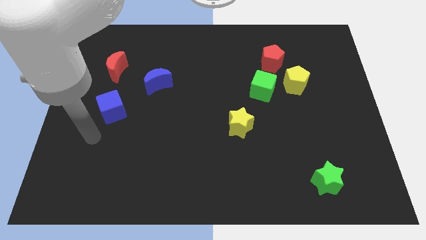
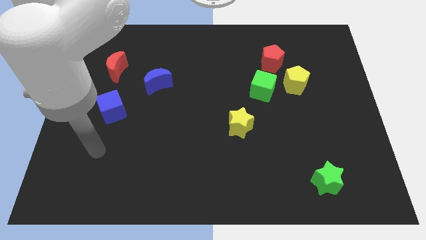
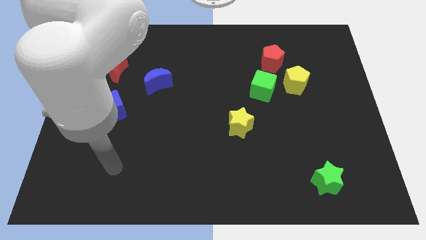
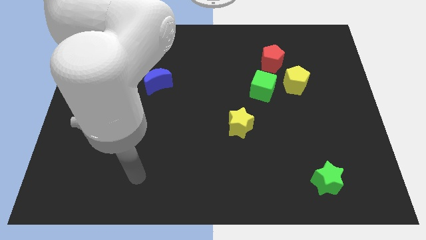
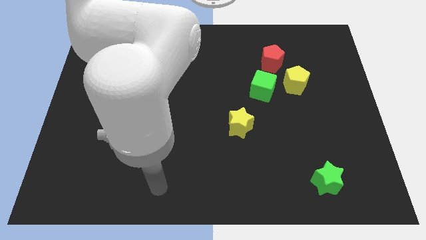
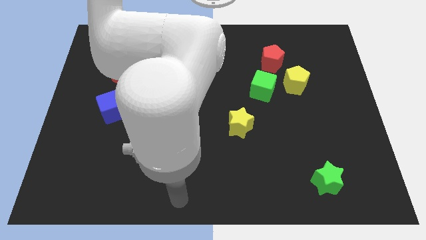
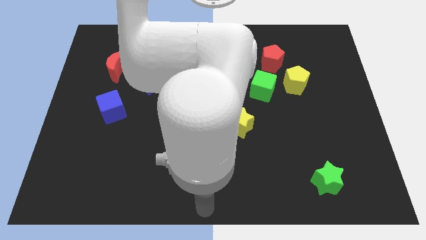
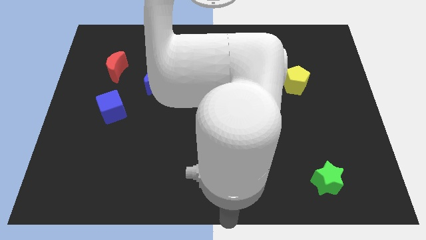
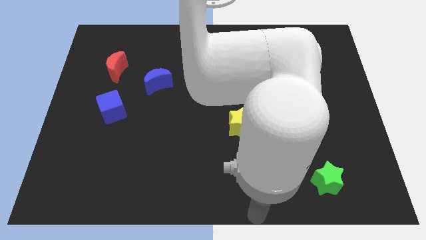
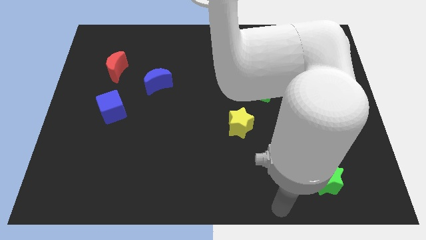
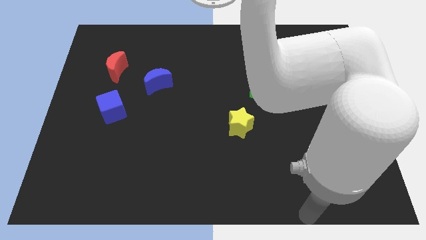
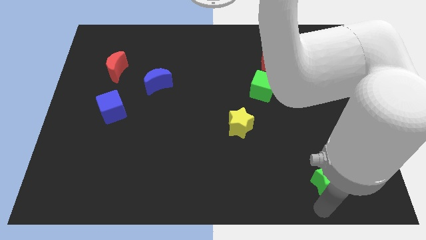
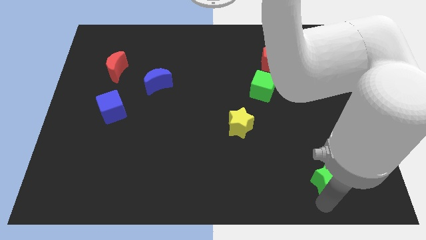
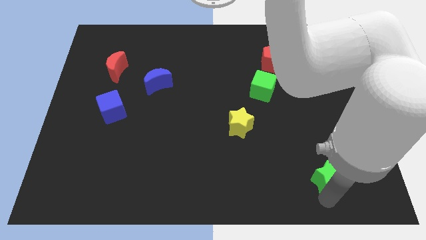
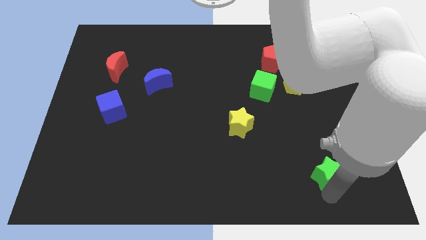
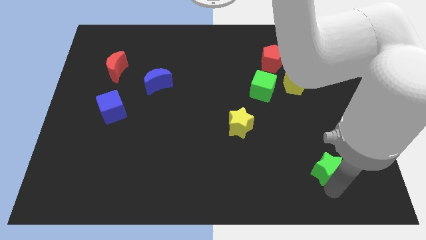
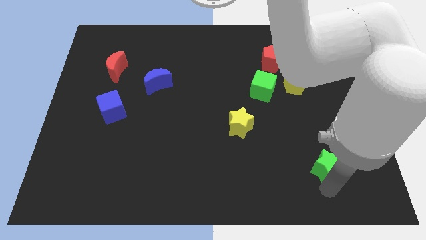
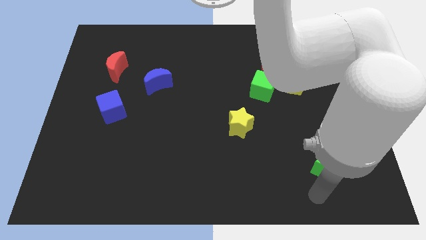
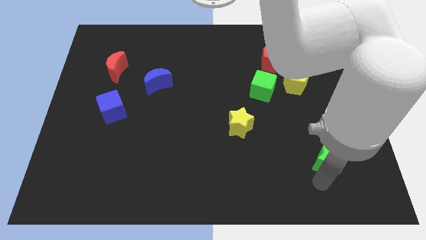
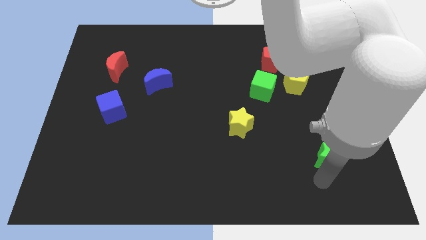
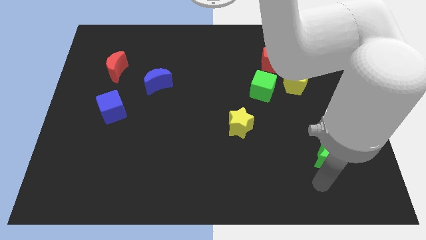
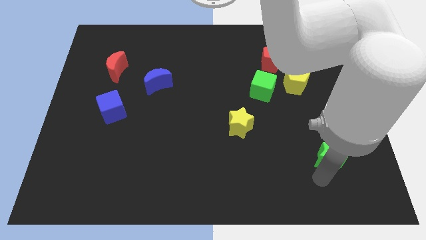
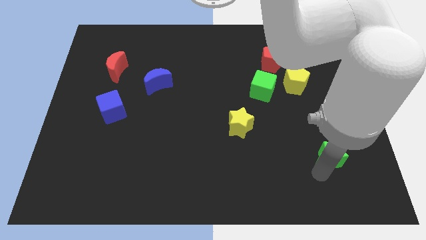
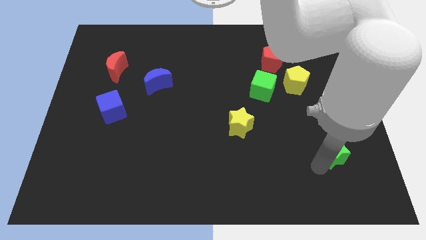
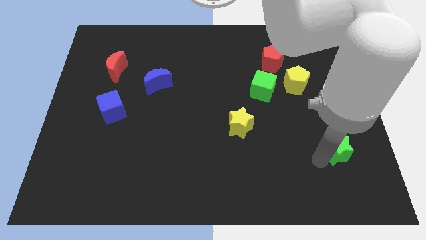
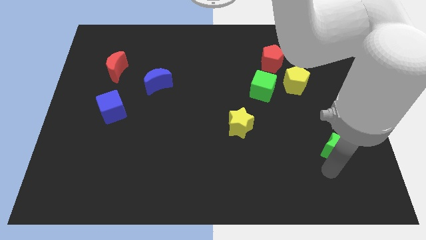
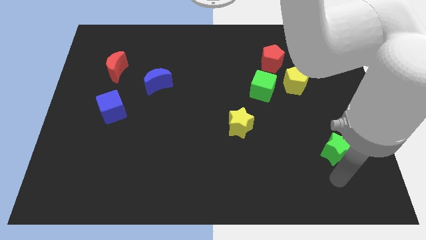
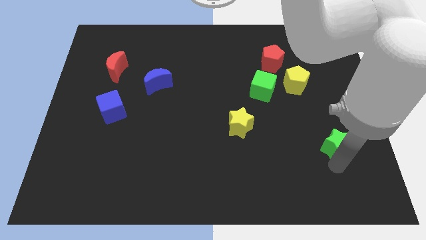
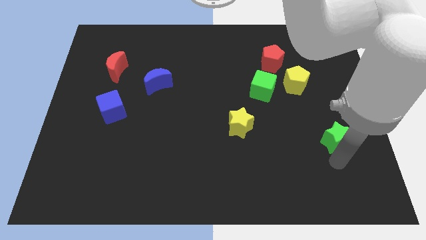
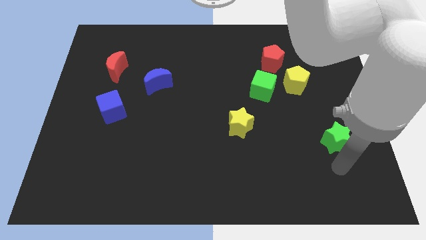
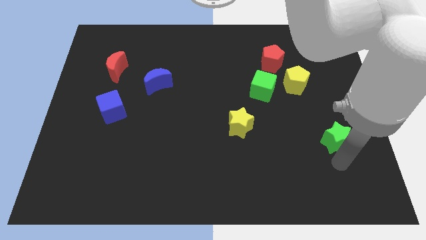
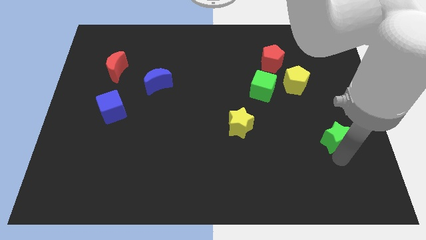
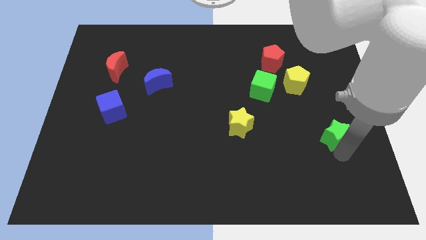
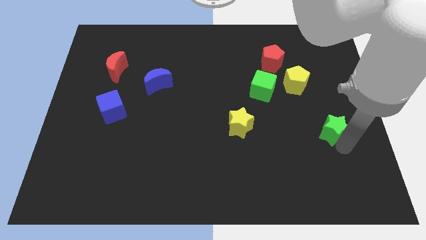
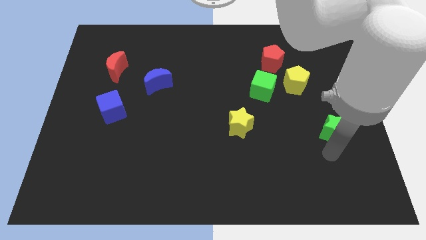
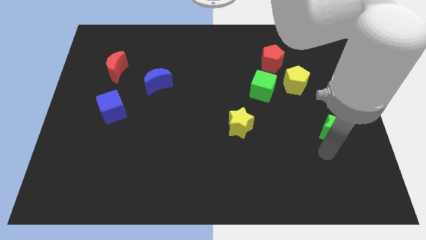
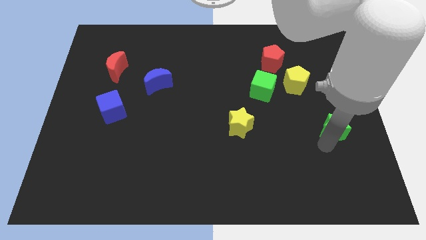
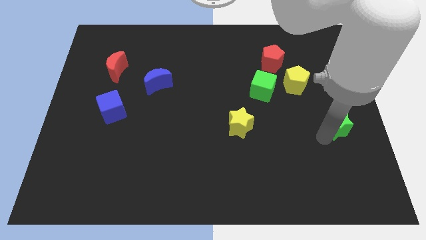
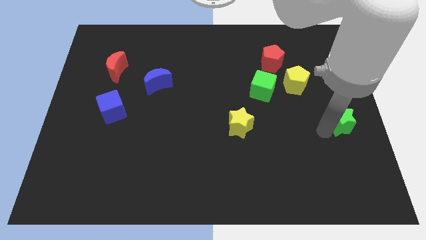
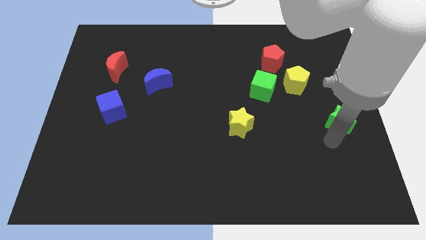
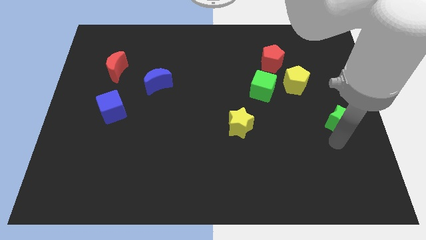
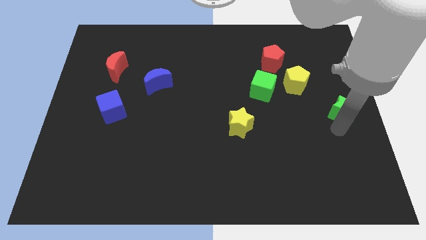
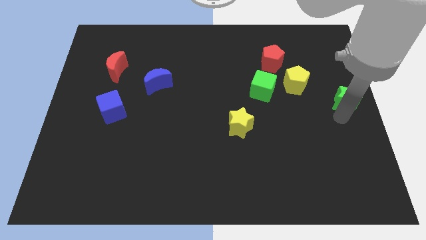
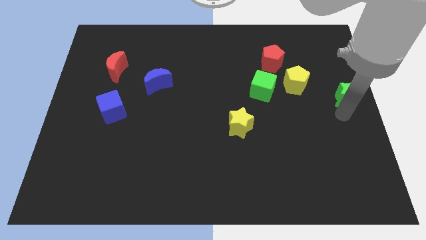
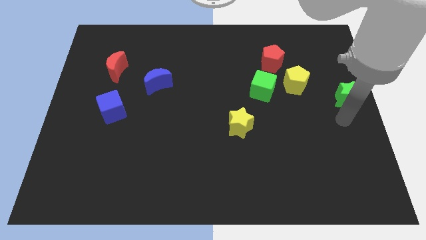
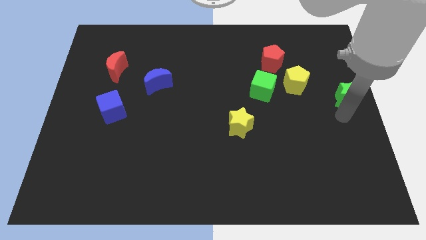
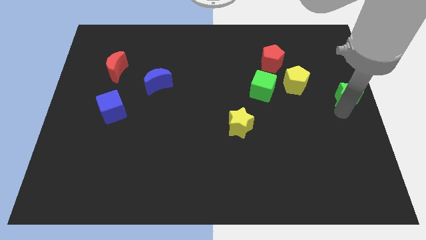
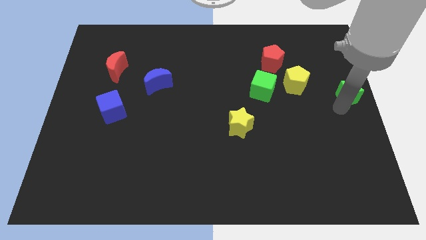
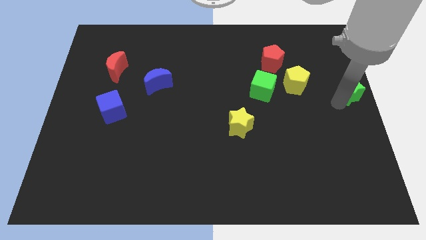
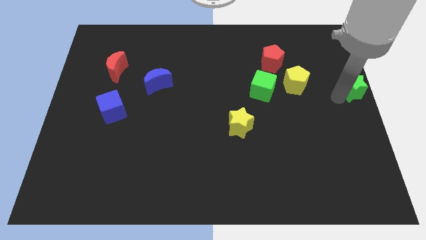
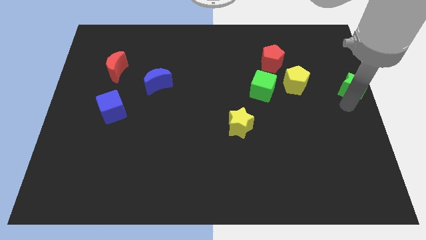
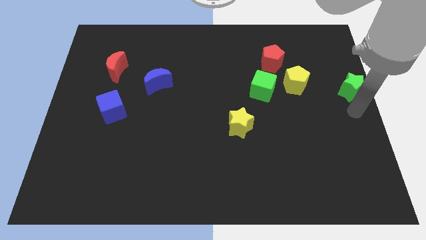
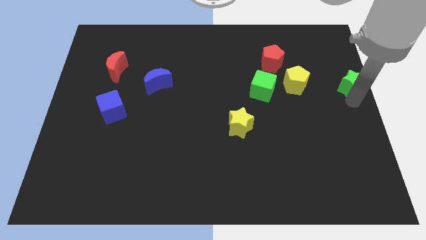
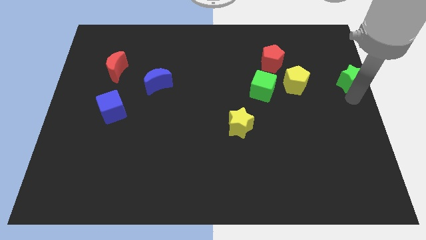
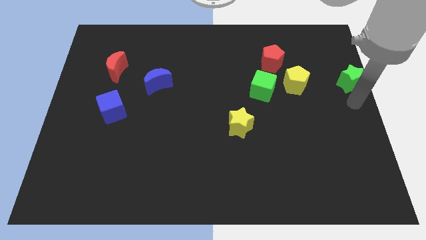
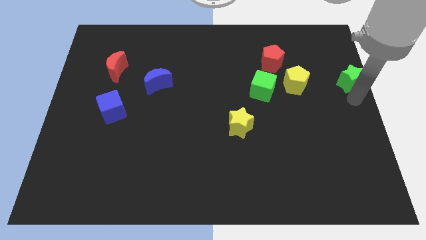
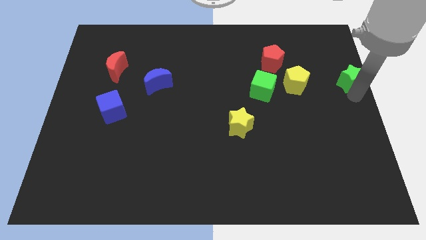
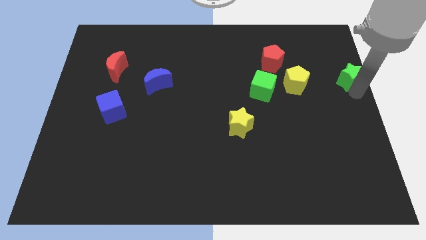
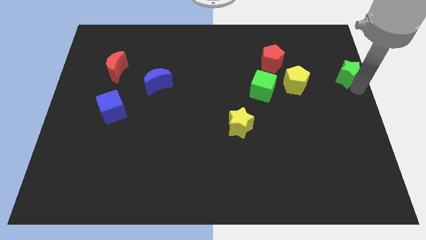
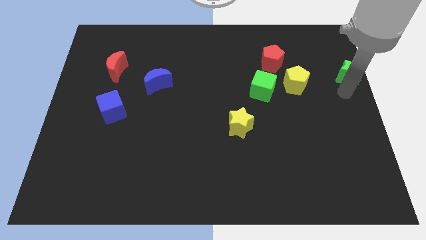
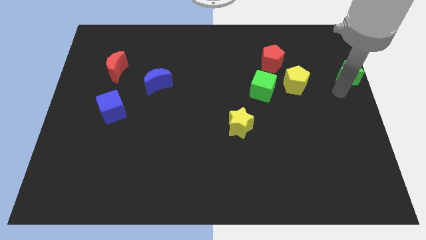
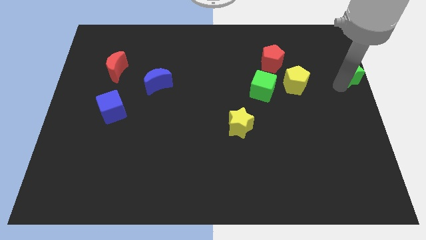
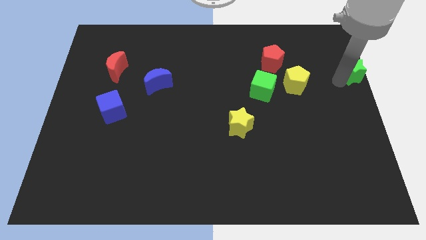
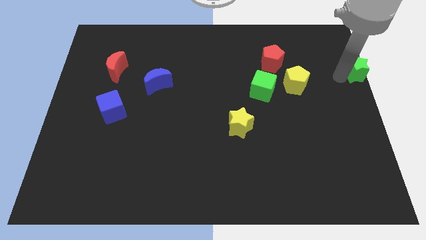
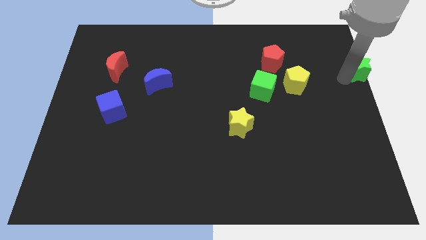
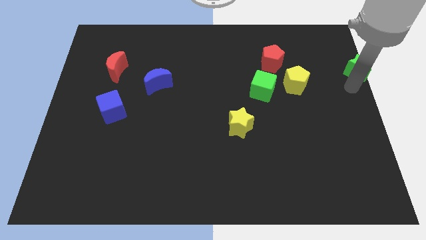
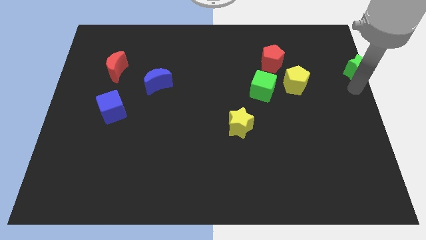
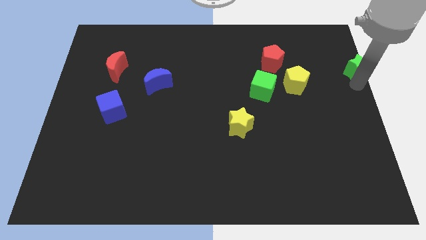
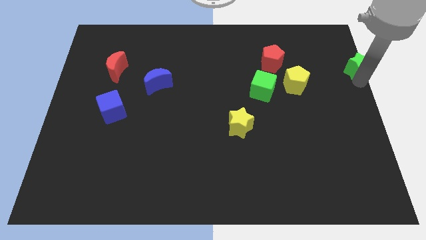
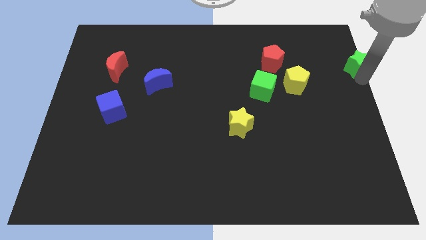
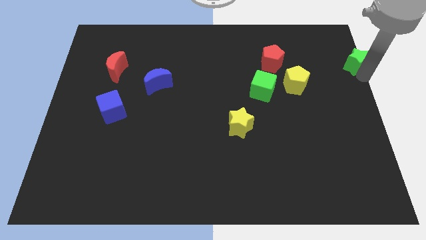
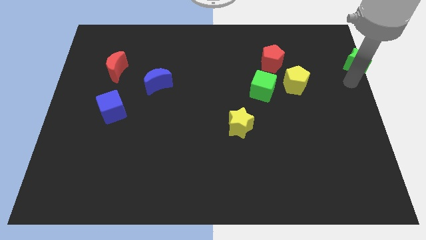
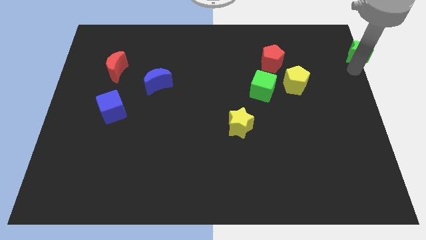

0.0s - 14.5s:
slide the green star to the upper right corner
